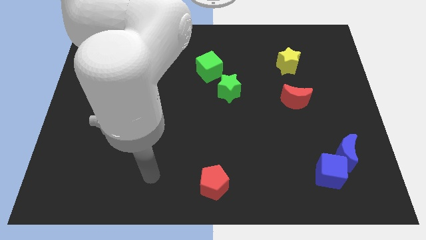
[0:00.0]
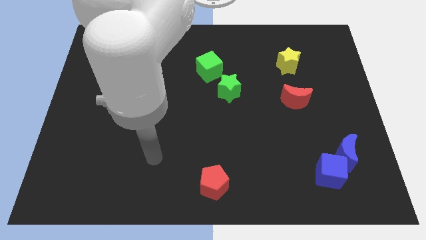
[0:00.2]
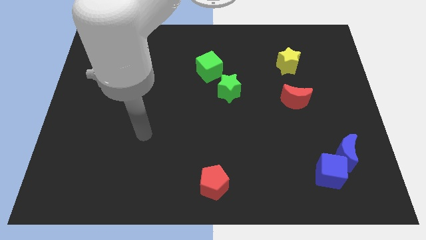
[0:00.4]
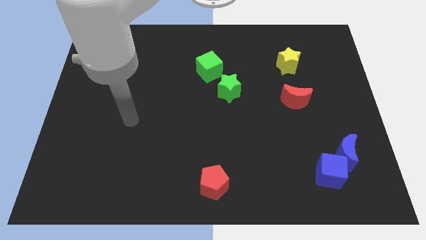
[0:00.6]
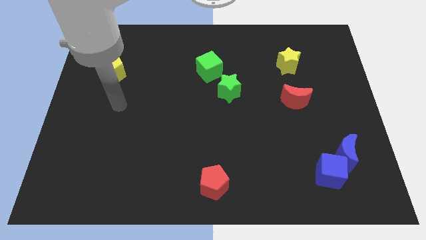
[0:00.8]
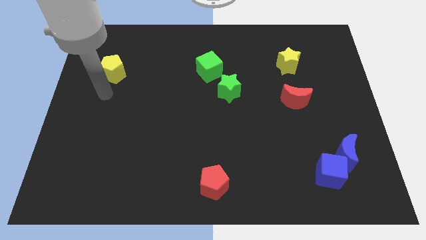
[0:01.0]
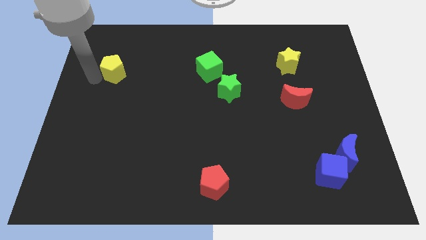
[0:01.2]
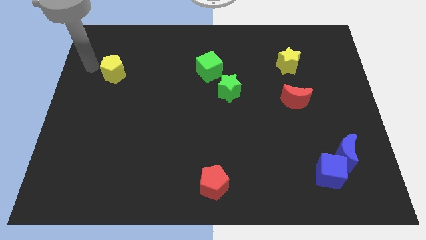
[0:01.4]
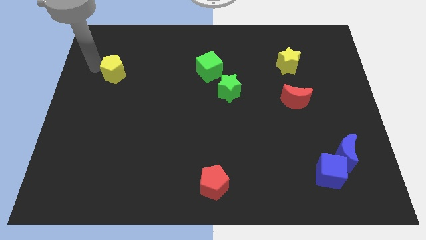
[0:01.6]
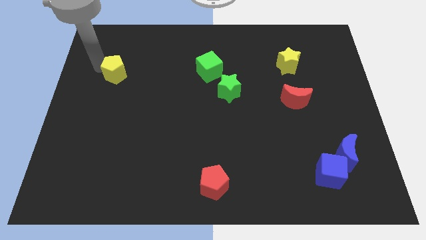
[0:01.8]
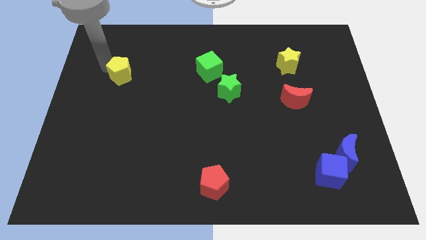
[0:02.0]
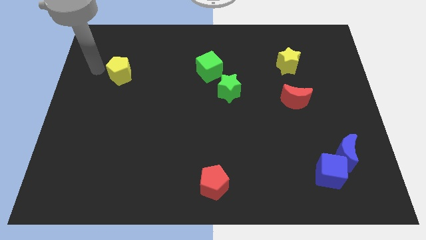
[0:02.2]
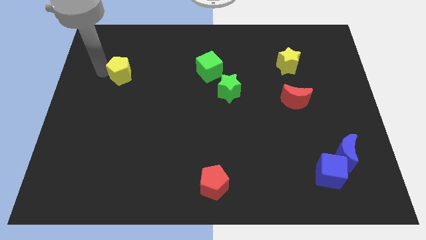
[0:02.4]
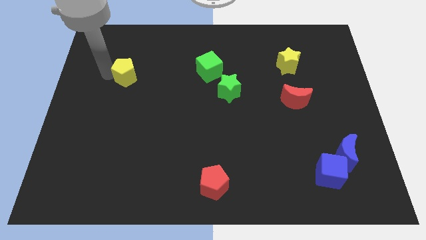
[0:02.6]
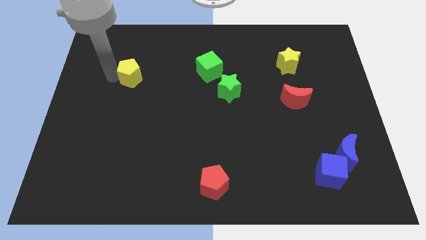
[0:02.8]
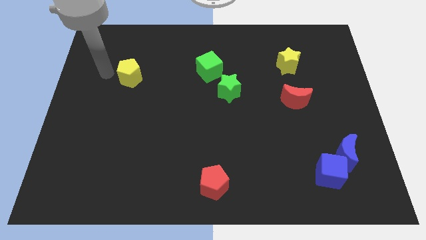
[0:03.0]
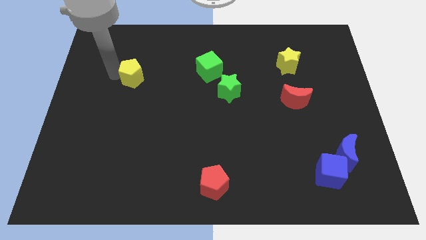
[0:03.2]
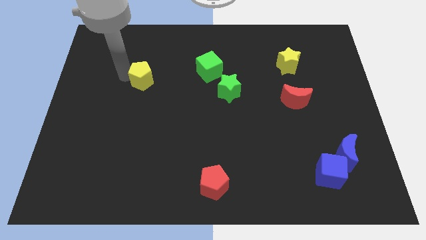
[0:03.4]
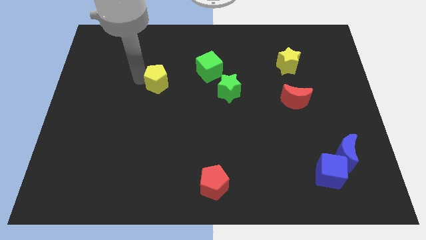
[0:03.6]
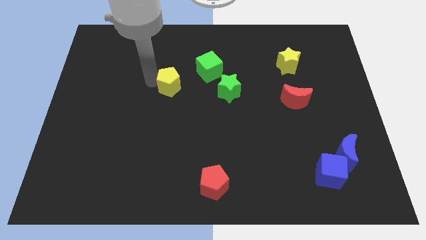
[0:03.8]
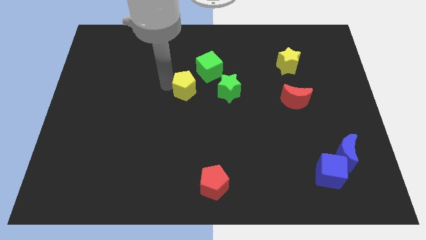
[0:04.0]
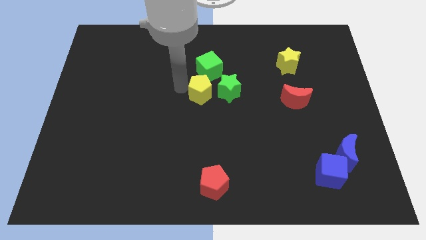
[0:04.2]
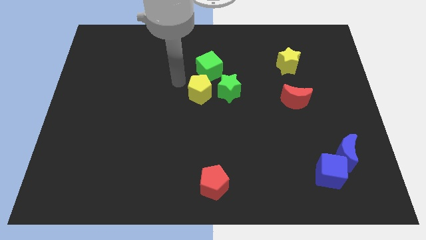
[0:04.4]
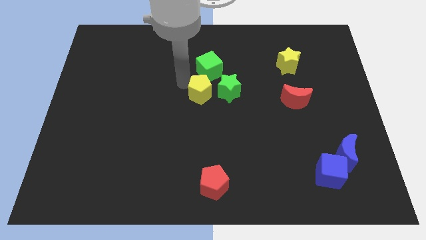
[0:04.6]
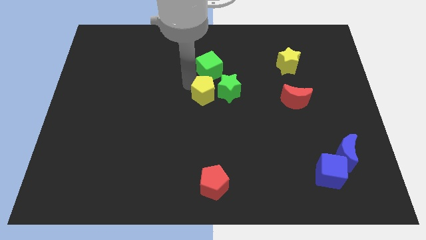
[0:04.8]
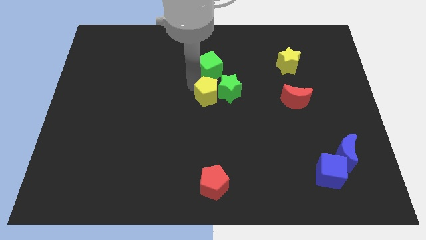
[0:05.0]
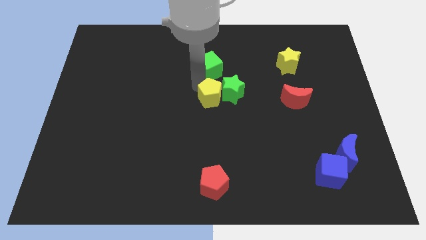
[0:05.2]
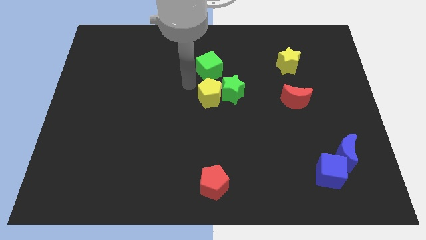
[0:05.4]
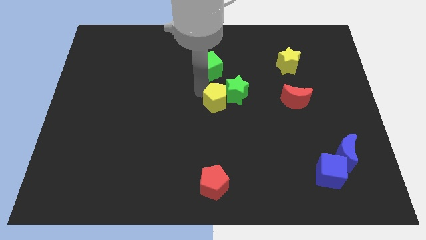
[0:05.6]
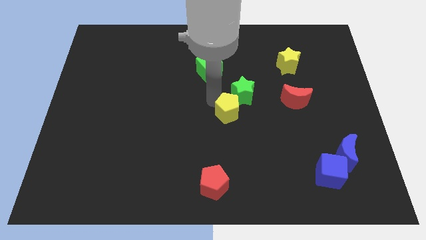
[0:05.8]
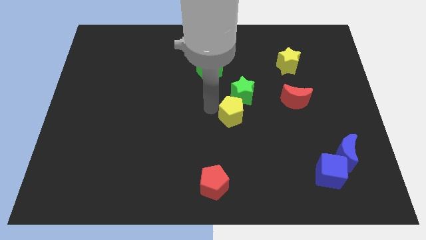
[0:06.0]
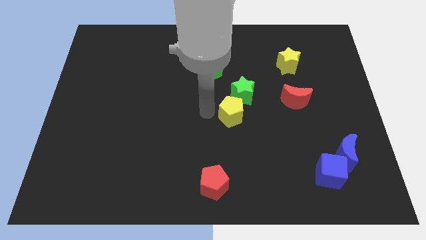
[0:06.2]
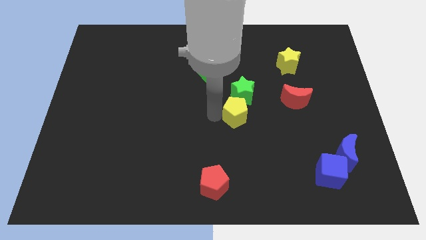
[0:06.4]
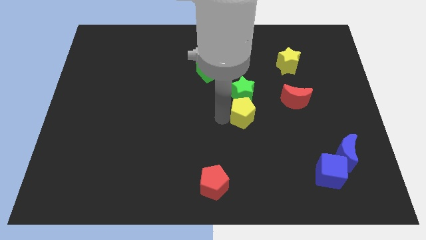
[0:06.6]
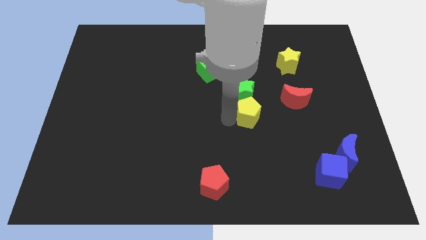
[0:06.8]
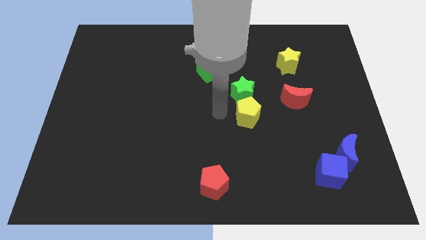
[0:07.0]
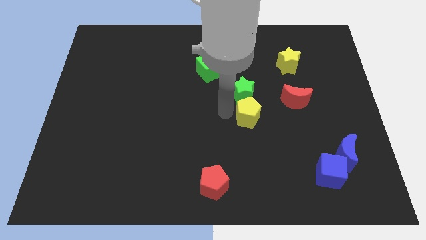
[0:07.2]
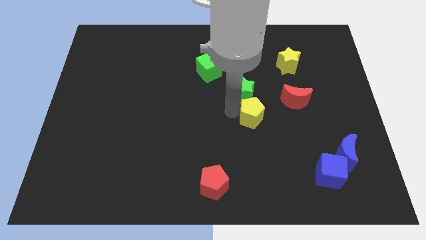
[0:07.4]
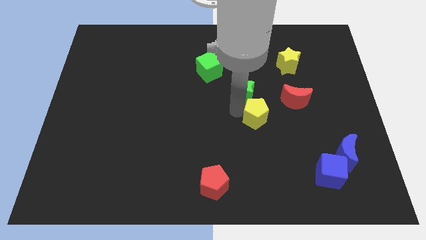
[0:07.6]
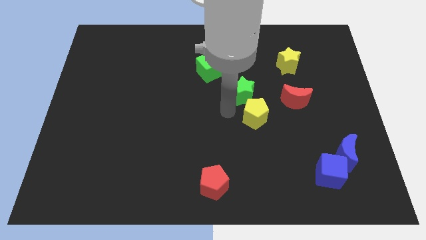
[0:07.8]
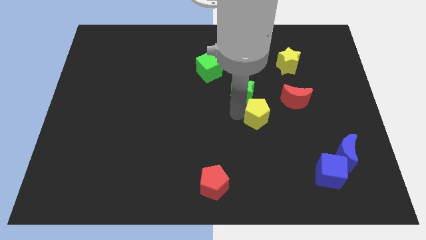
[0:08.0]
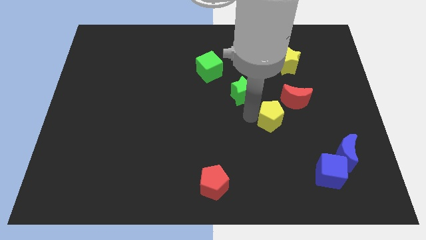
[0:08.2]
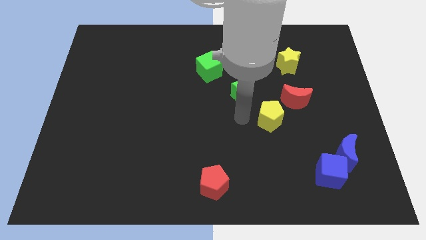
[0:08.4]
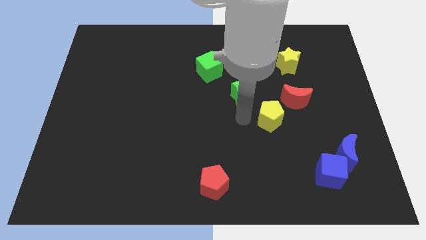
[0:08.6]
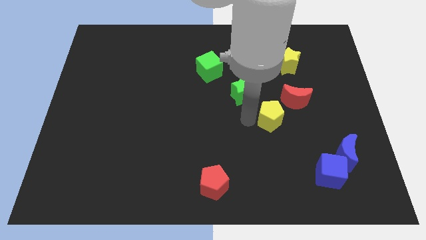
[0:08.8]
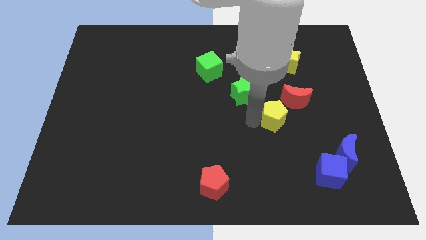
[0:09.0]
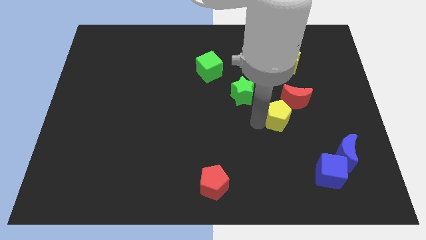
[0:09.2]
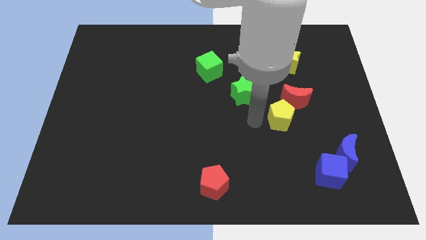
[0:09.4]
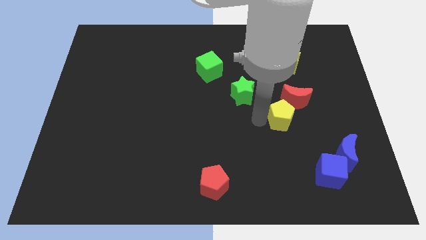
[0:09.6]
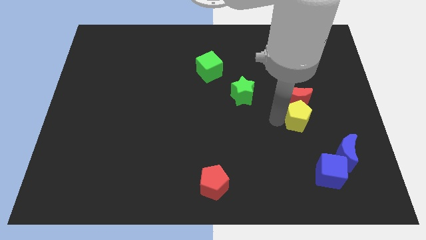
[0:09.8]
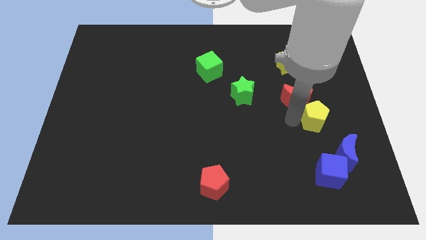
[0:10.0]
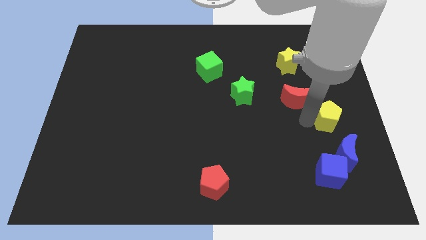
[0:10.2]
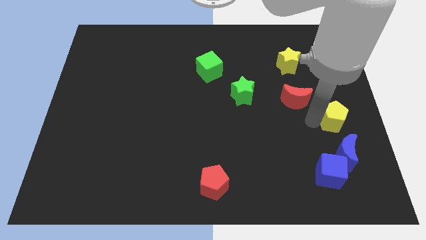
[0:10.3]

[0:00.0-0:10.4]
put the yellow pentagon to the right side of the board
